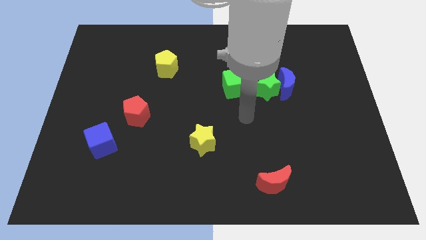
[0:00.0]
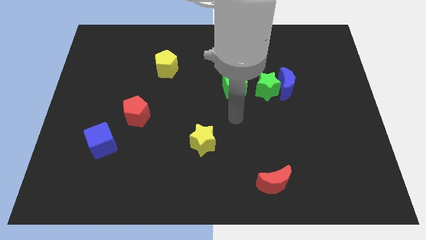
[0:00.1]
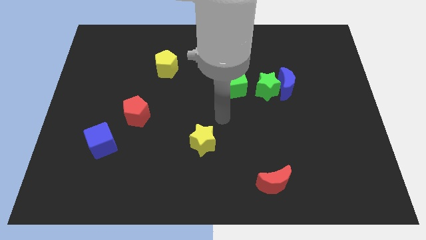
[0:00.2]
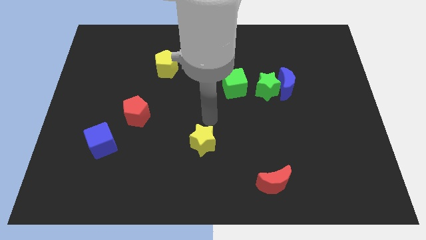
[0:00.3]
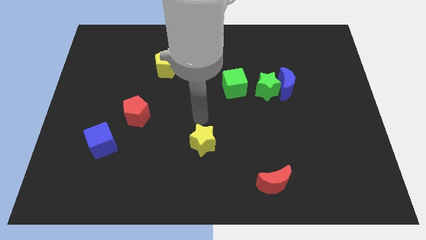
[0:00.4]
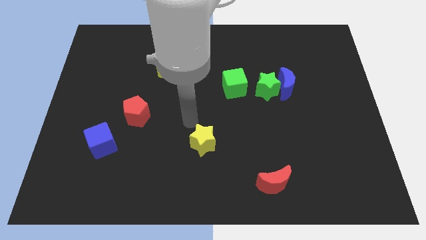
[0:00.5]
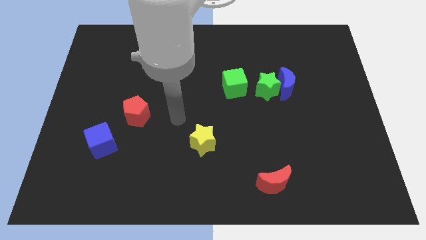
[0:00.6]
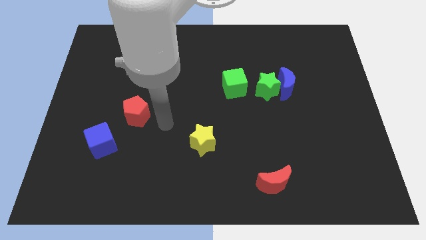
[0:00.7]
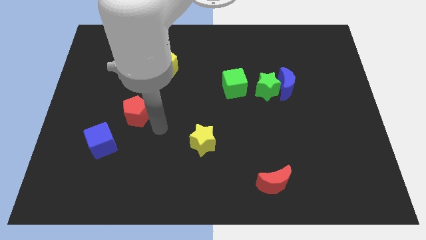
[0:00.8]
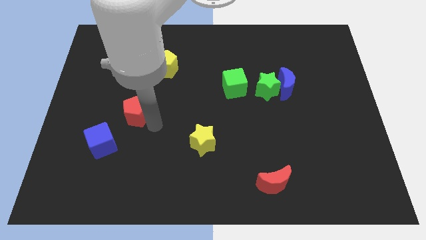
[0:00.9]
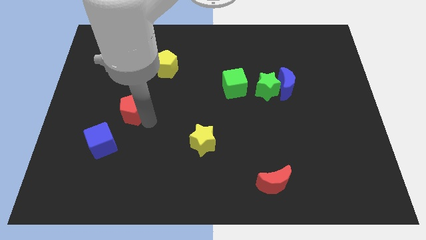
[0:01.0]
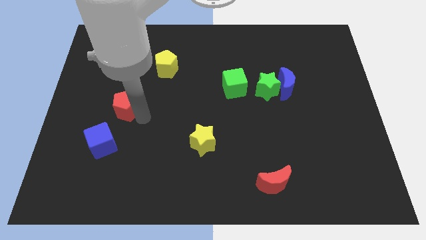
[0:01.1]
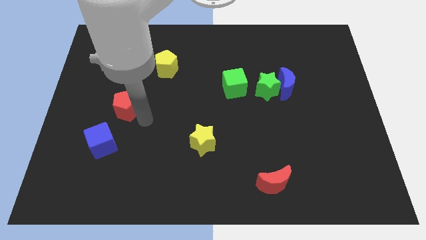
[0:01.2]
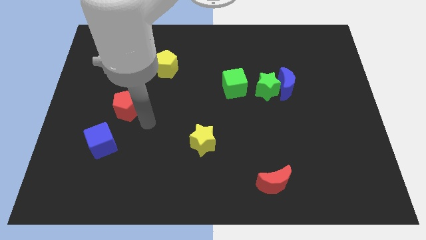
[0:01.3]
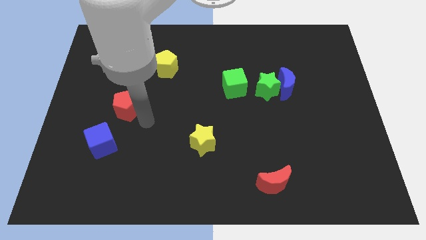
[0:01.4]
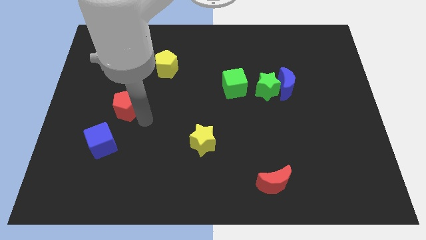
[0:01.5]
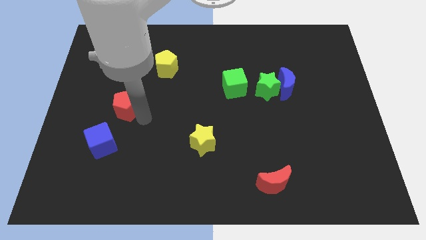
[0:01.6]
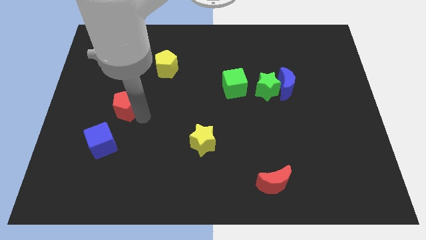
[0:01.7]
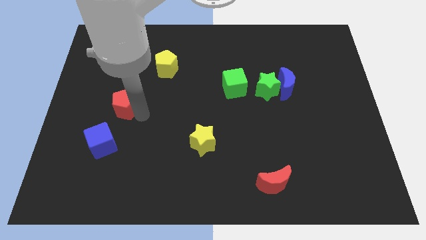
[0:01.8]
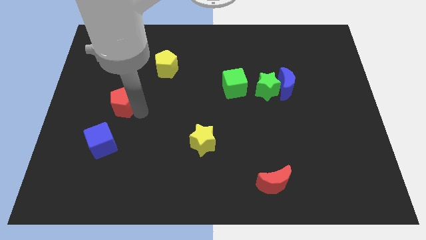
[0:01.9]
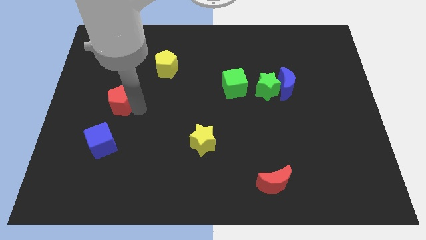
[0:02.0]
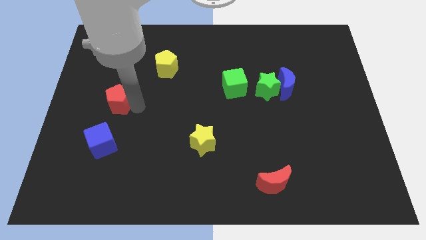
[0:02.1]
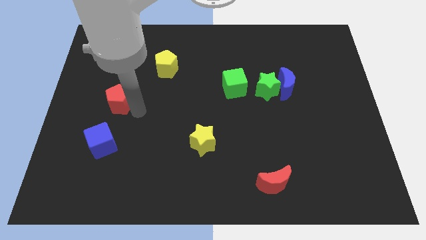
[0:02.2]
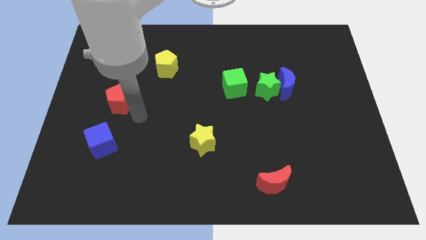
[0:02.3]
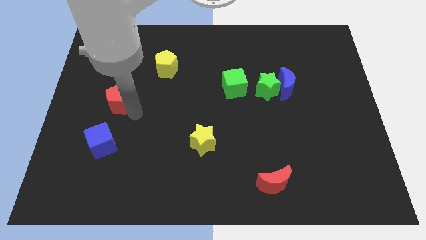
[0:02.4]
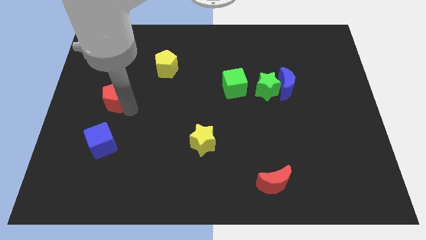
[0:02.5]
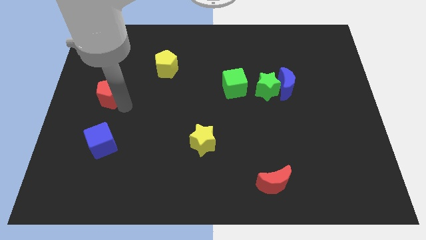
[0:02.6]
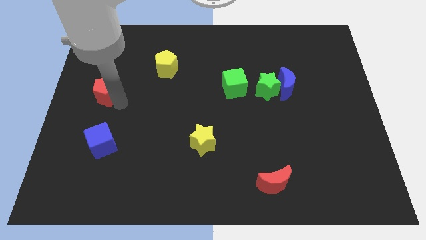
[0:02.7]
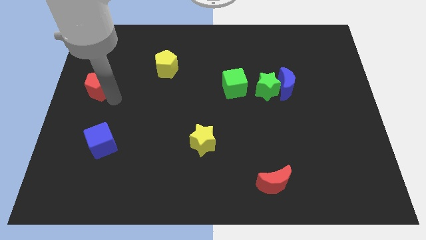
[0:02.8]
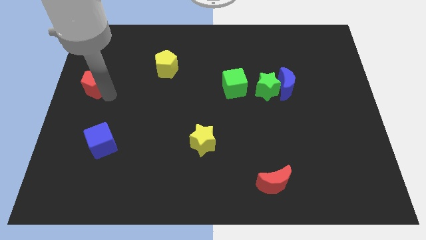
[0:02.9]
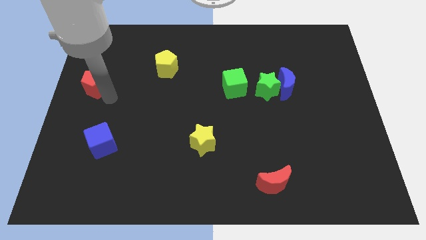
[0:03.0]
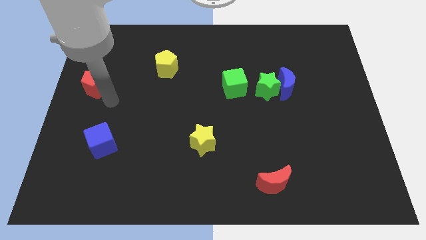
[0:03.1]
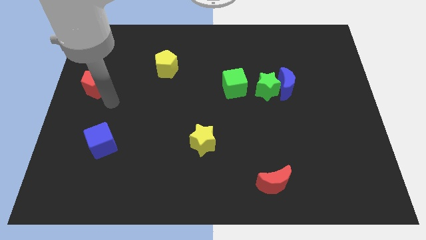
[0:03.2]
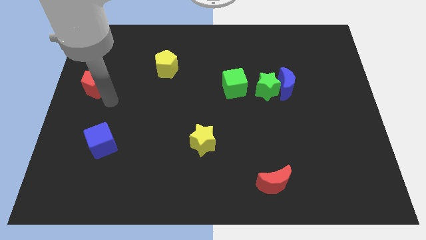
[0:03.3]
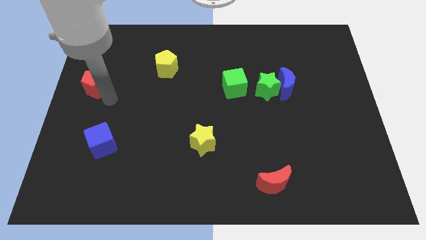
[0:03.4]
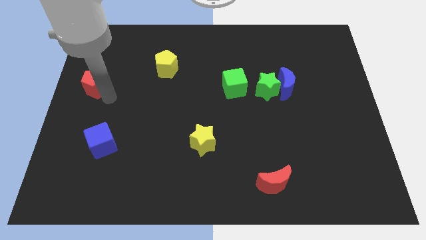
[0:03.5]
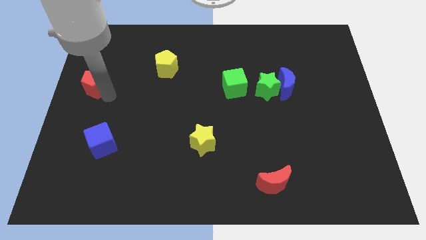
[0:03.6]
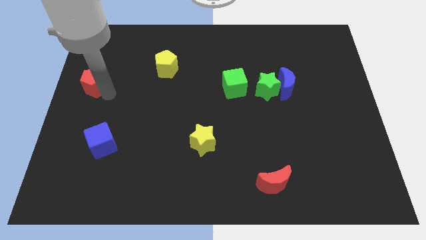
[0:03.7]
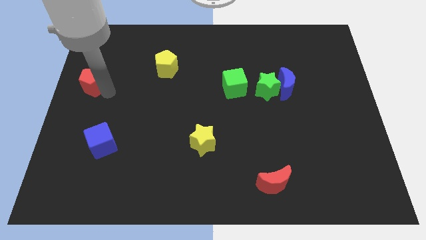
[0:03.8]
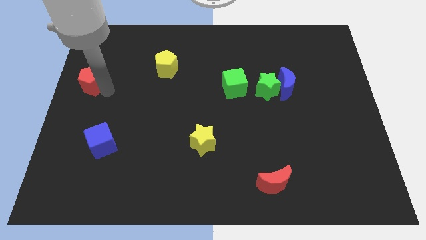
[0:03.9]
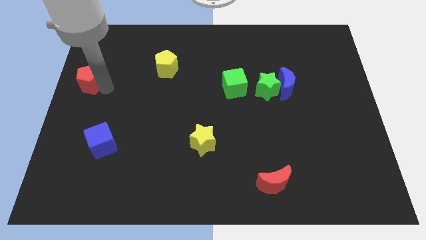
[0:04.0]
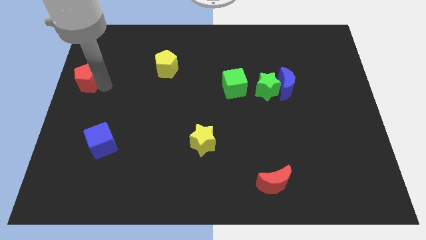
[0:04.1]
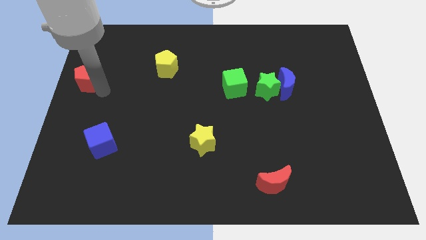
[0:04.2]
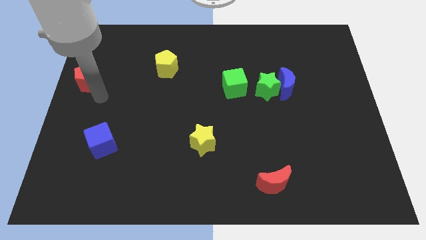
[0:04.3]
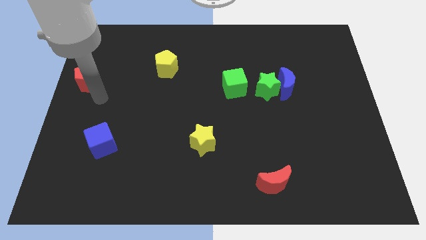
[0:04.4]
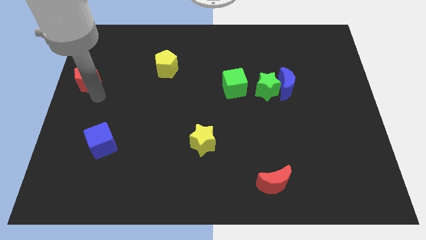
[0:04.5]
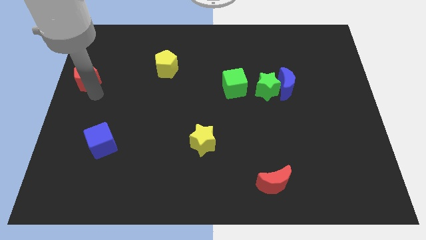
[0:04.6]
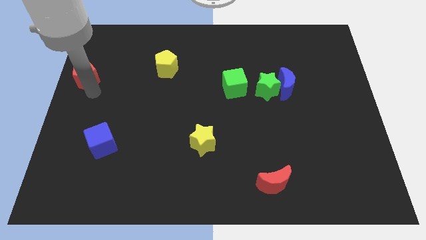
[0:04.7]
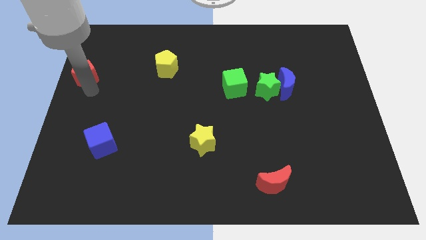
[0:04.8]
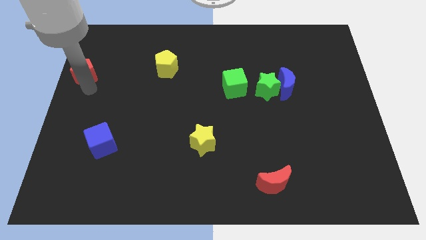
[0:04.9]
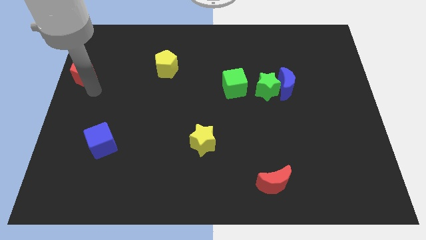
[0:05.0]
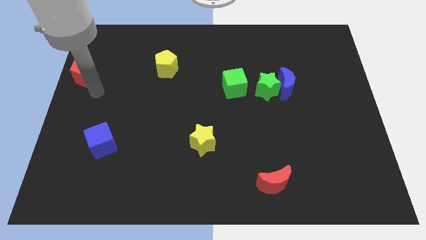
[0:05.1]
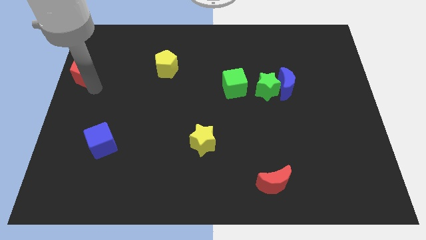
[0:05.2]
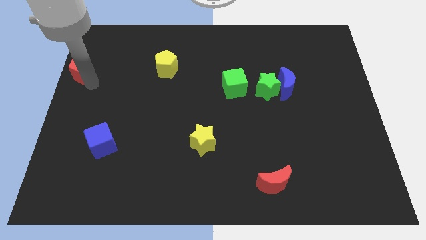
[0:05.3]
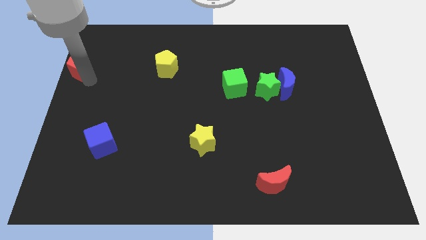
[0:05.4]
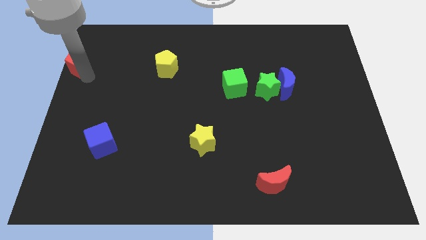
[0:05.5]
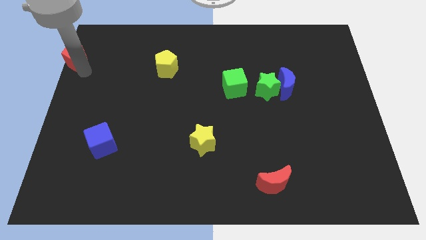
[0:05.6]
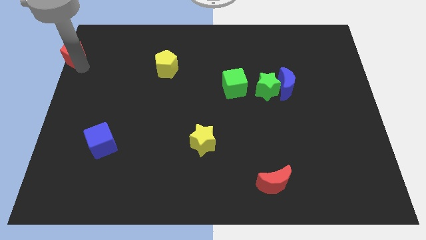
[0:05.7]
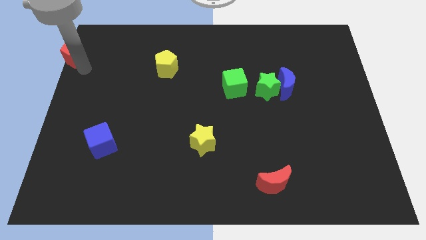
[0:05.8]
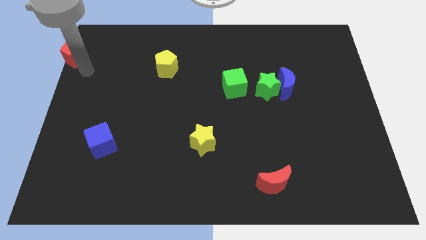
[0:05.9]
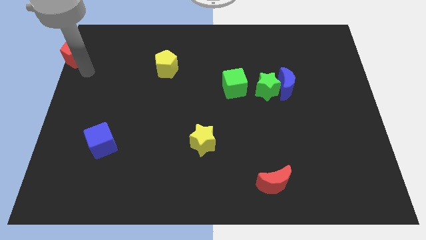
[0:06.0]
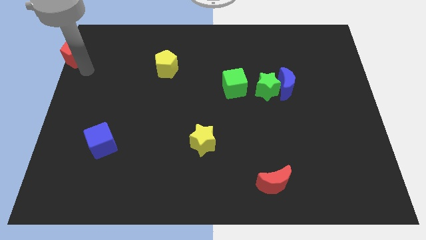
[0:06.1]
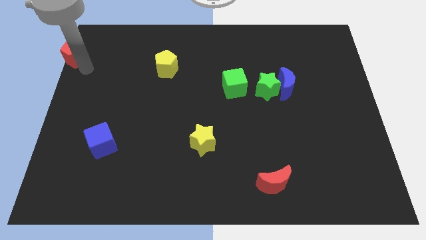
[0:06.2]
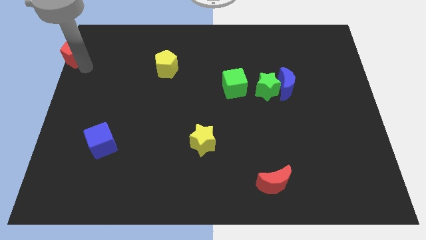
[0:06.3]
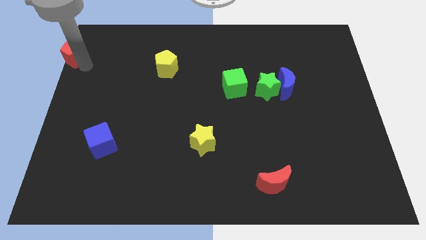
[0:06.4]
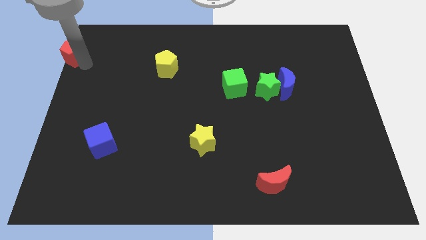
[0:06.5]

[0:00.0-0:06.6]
put the red pentagon to the upper left corner
